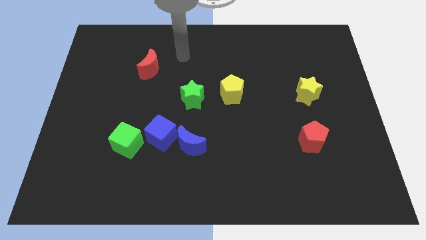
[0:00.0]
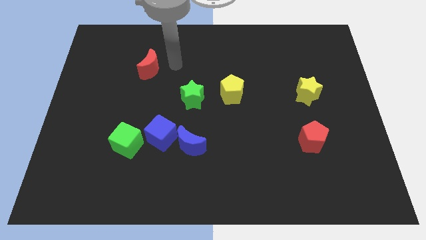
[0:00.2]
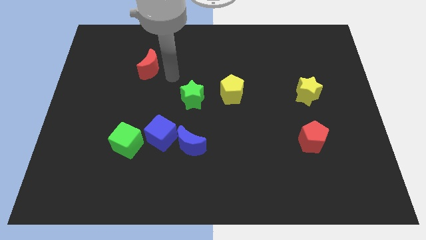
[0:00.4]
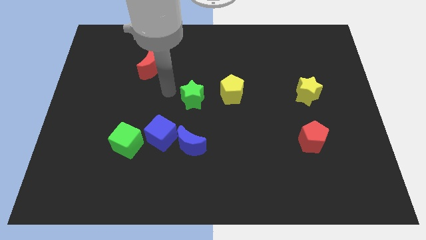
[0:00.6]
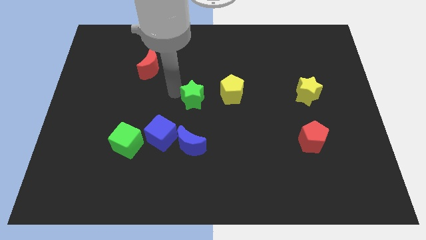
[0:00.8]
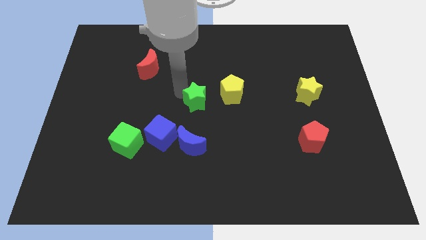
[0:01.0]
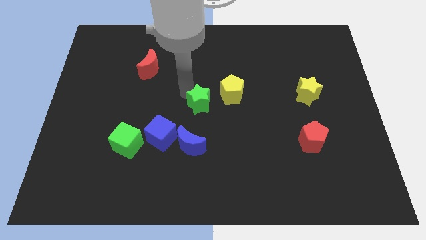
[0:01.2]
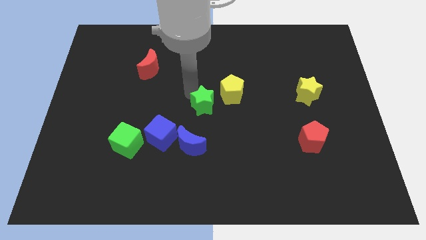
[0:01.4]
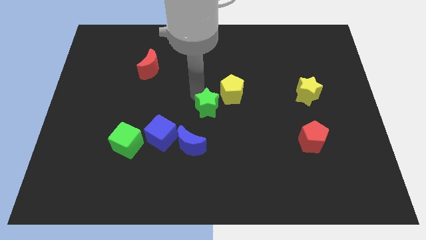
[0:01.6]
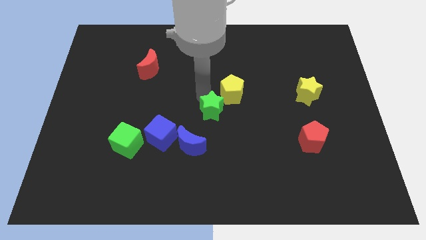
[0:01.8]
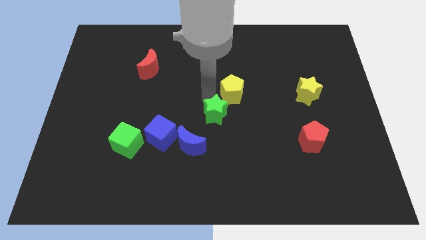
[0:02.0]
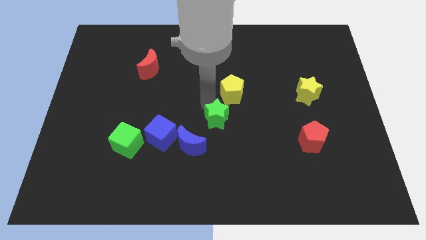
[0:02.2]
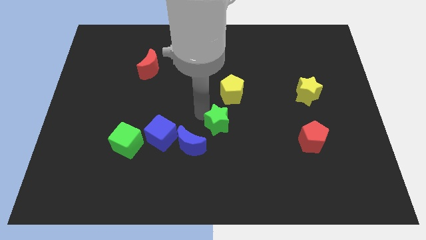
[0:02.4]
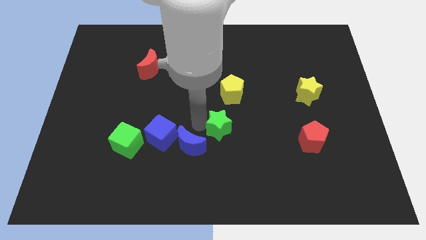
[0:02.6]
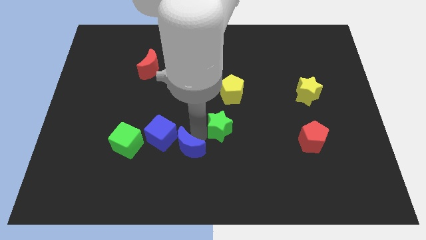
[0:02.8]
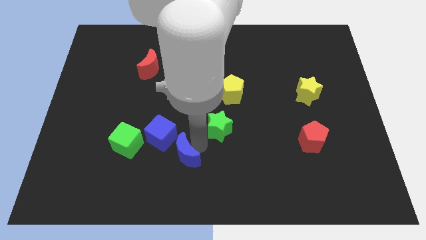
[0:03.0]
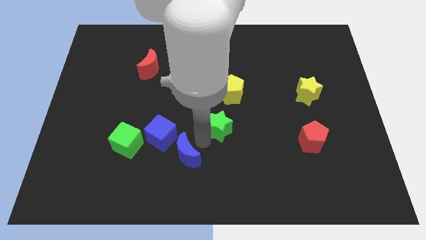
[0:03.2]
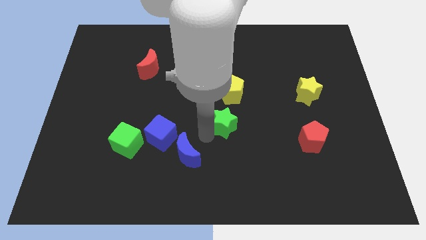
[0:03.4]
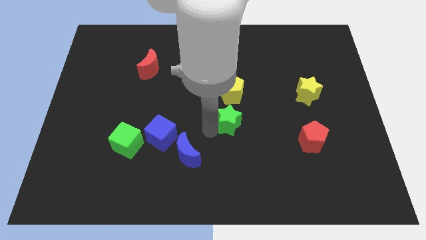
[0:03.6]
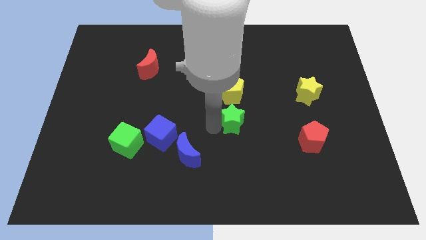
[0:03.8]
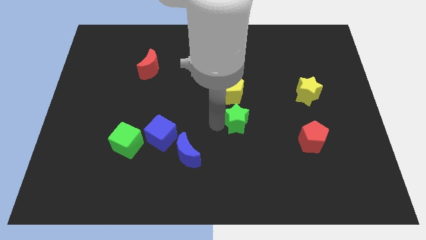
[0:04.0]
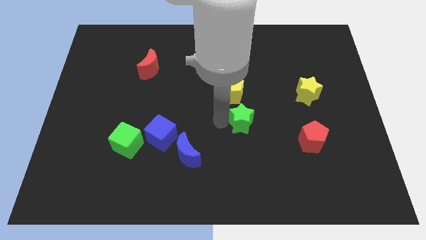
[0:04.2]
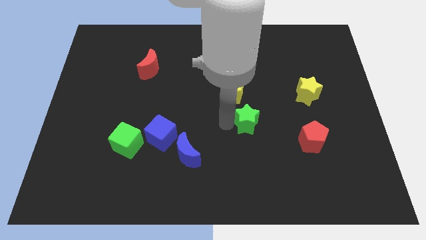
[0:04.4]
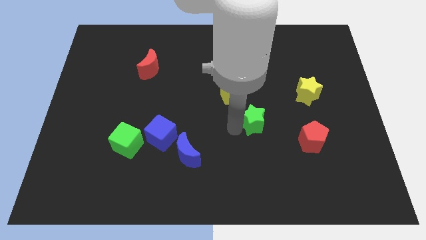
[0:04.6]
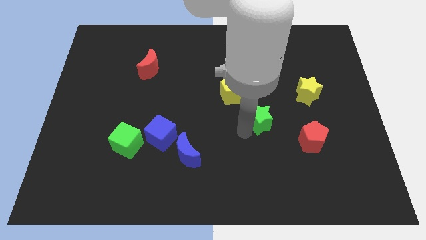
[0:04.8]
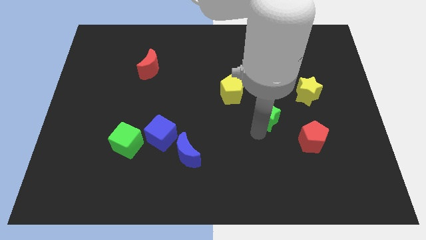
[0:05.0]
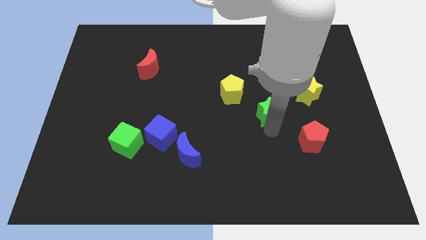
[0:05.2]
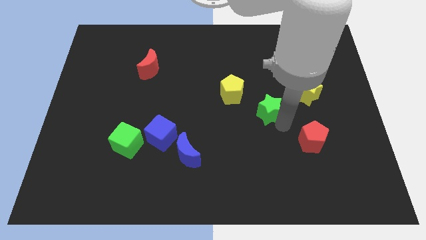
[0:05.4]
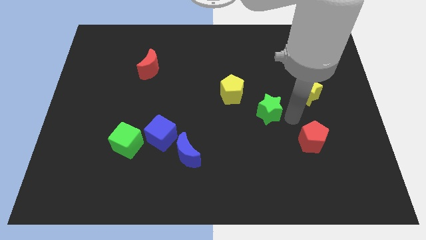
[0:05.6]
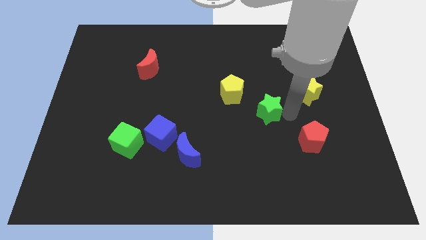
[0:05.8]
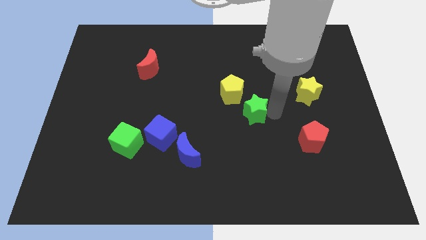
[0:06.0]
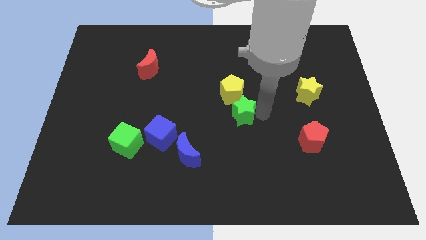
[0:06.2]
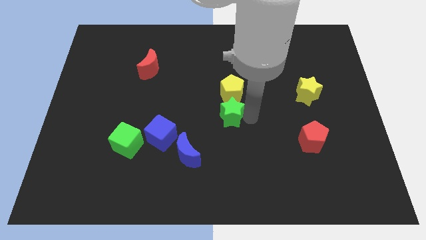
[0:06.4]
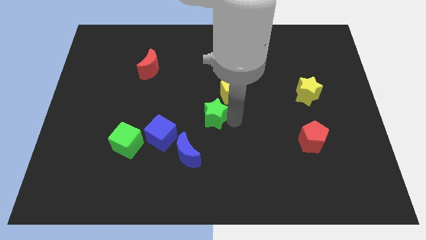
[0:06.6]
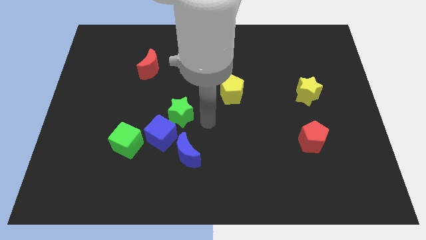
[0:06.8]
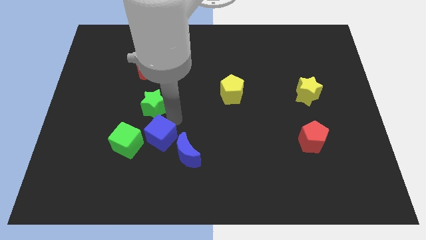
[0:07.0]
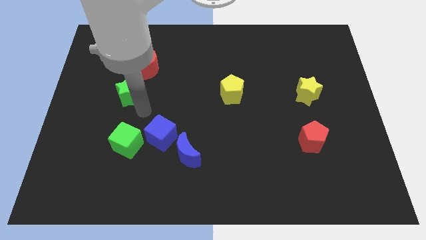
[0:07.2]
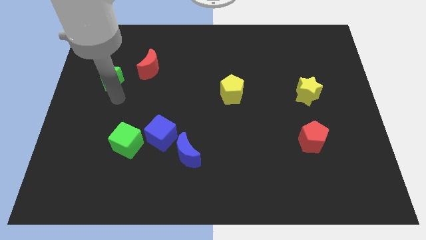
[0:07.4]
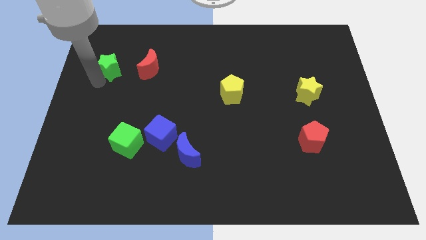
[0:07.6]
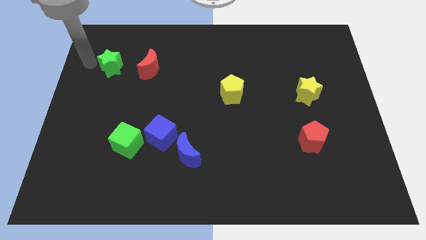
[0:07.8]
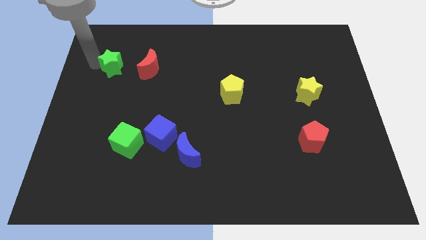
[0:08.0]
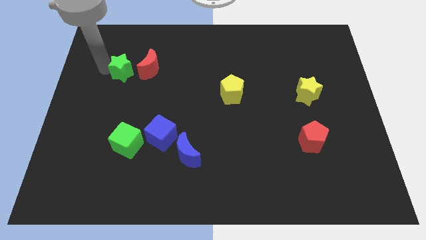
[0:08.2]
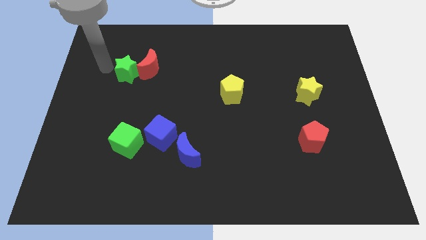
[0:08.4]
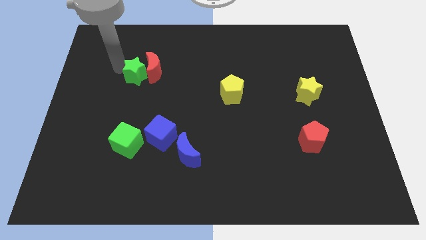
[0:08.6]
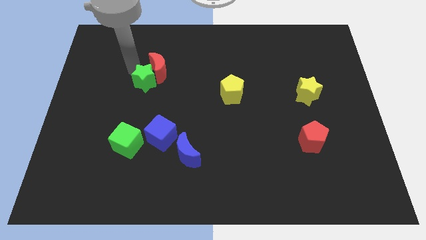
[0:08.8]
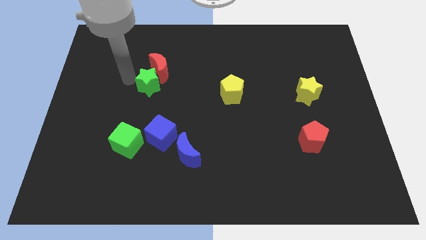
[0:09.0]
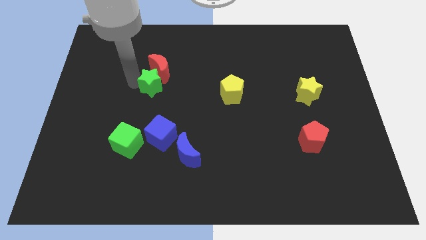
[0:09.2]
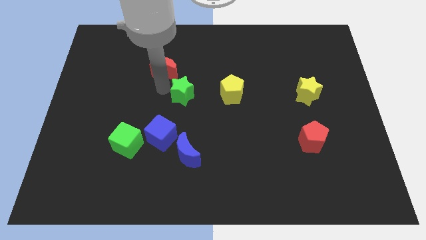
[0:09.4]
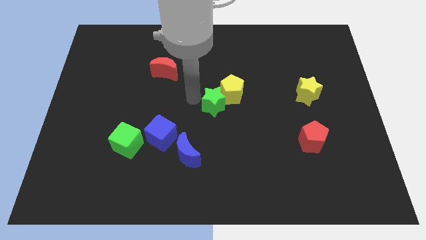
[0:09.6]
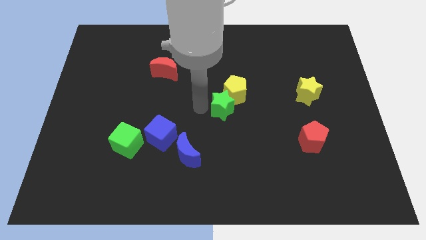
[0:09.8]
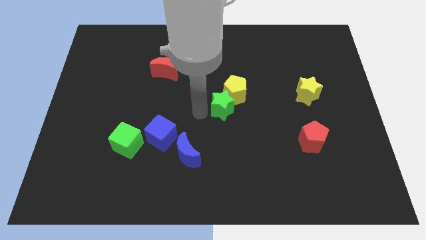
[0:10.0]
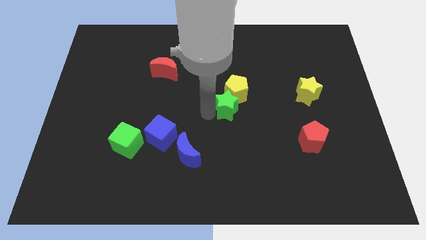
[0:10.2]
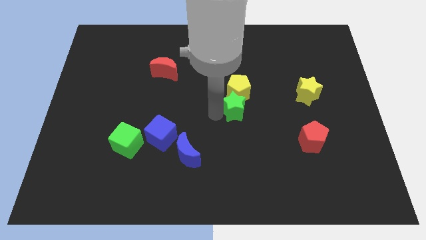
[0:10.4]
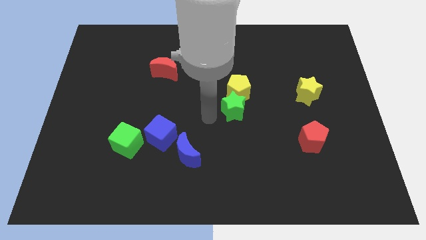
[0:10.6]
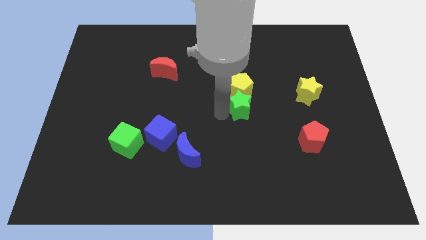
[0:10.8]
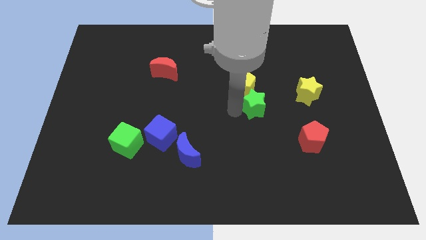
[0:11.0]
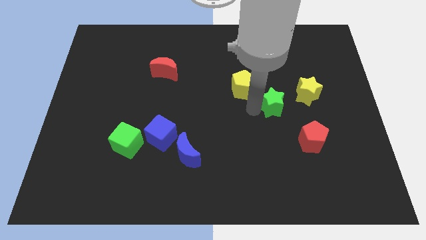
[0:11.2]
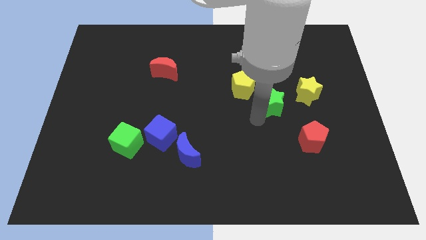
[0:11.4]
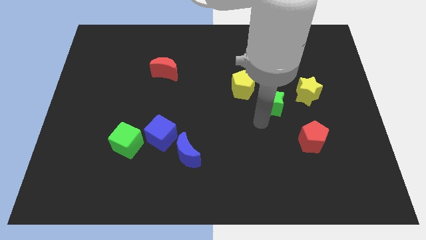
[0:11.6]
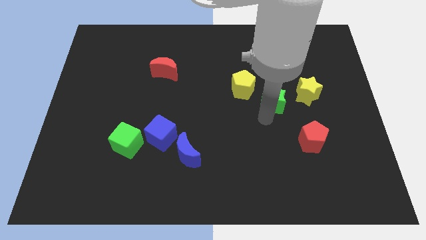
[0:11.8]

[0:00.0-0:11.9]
put the green star just right of the yellow pentagon

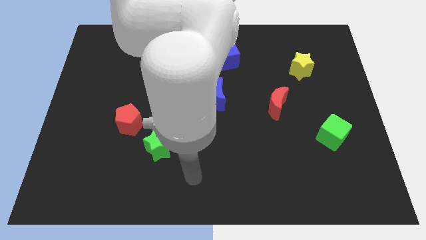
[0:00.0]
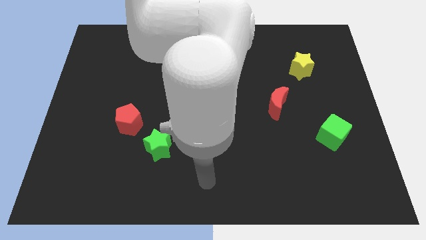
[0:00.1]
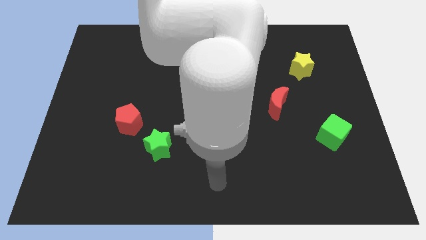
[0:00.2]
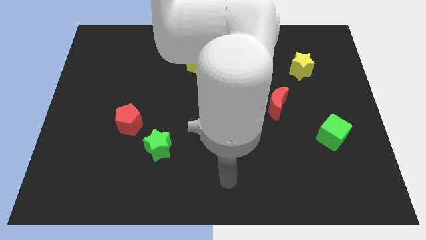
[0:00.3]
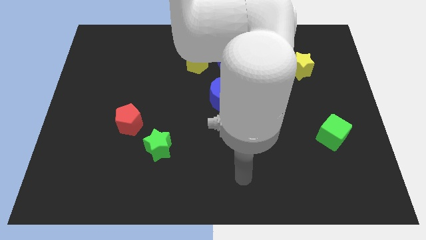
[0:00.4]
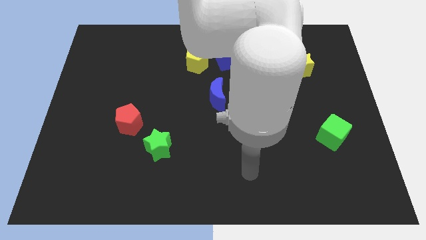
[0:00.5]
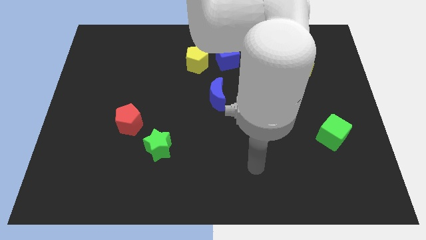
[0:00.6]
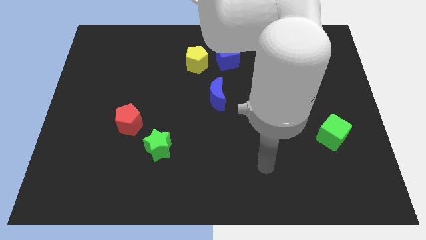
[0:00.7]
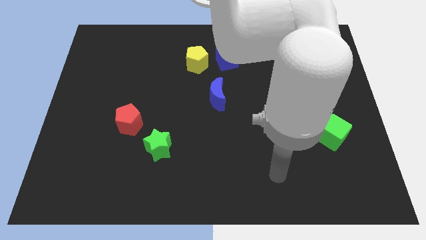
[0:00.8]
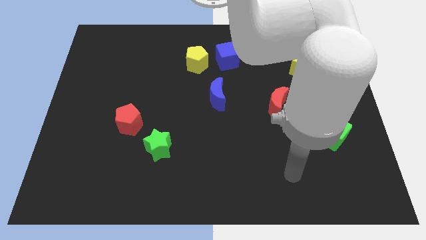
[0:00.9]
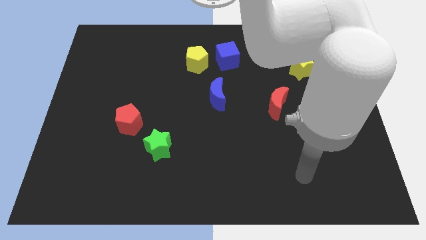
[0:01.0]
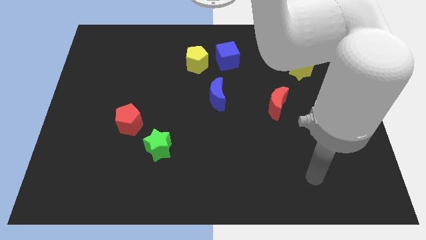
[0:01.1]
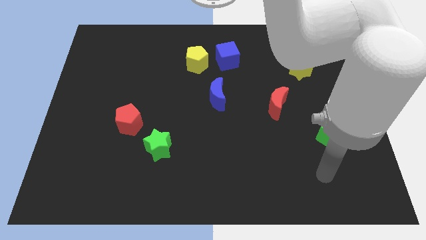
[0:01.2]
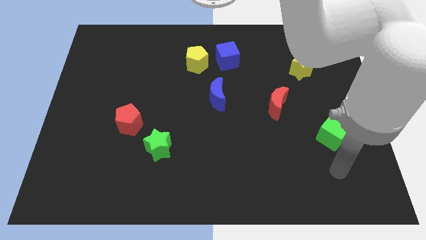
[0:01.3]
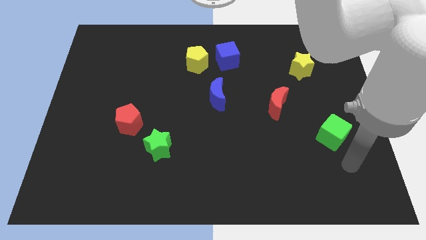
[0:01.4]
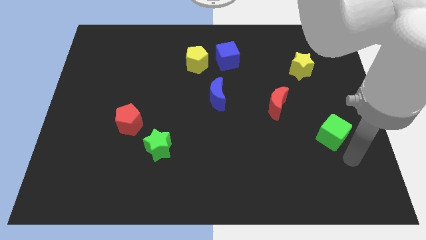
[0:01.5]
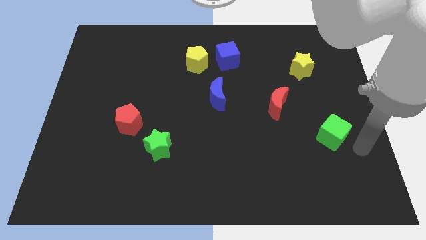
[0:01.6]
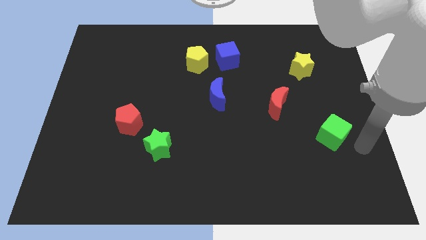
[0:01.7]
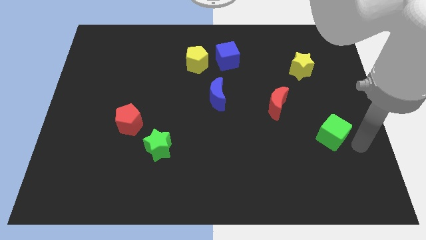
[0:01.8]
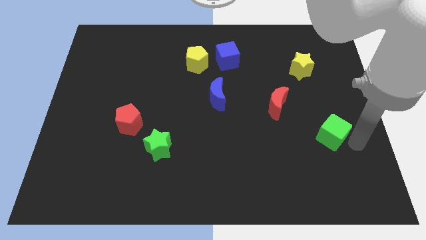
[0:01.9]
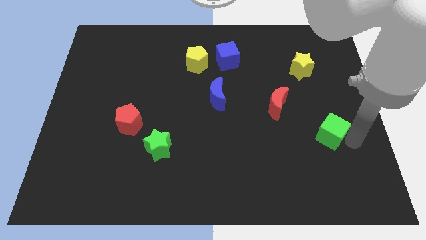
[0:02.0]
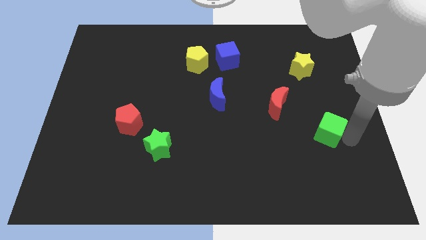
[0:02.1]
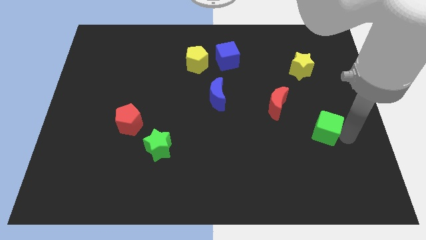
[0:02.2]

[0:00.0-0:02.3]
put the green cube to the bottom right of the red moon
